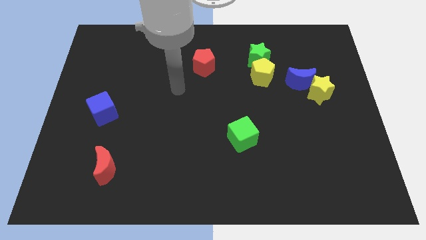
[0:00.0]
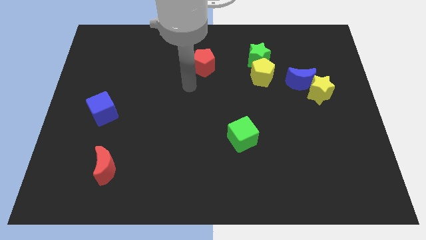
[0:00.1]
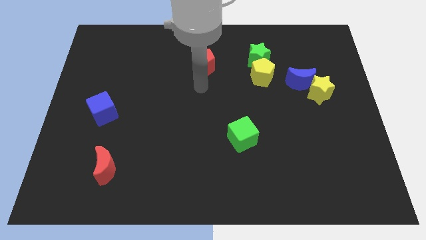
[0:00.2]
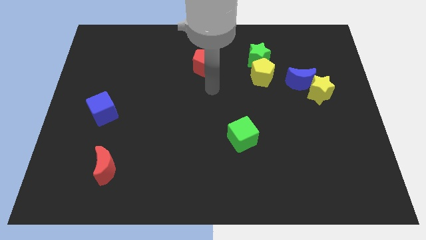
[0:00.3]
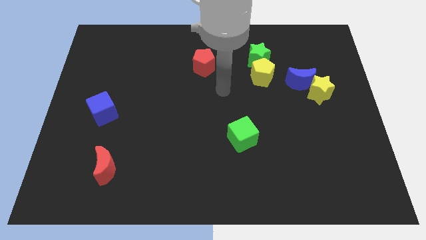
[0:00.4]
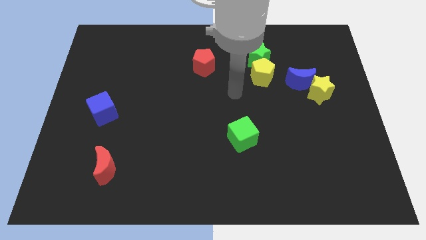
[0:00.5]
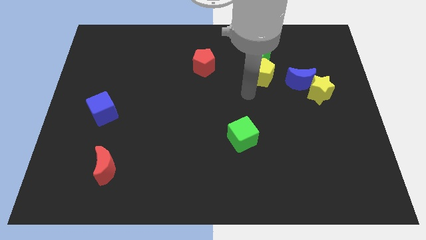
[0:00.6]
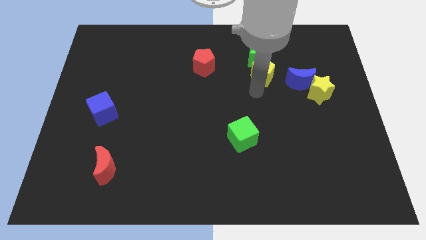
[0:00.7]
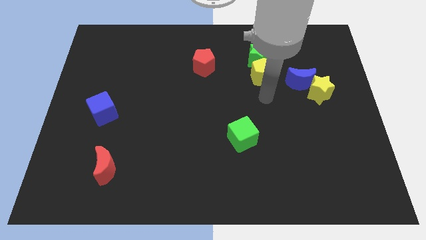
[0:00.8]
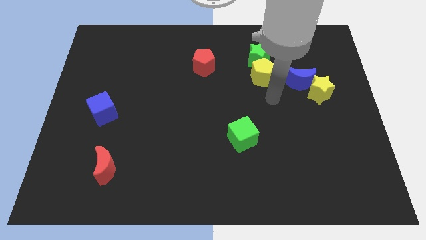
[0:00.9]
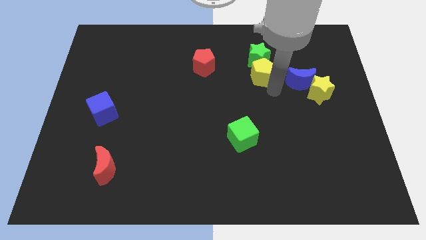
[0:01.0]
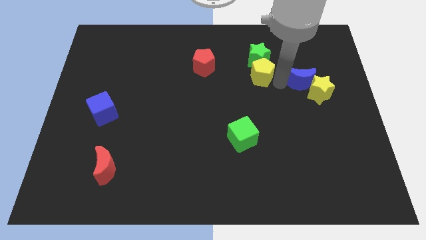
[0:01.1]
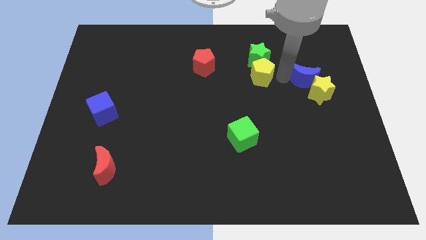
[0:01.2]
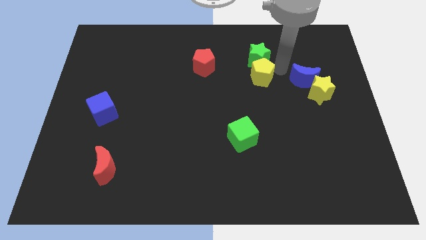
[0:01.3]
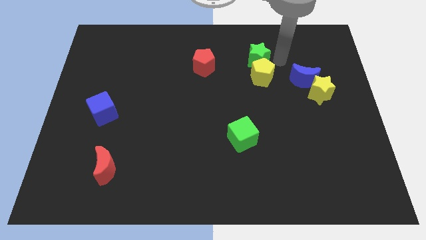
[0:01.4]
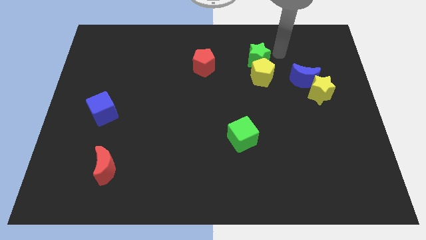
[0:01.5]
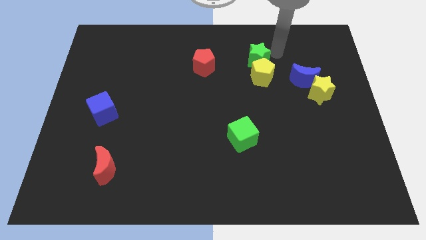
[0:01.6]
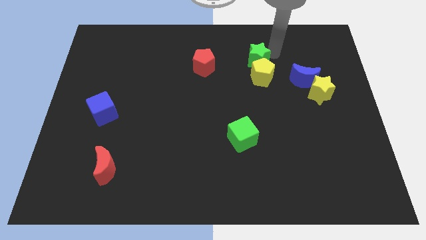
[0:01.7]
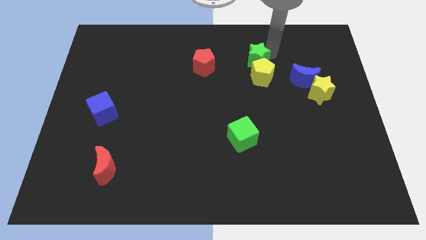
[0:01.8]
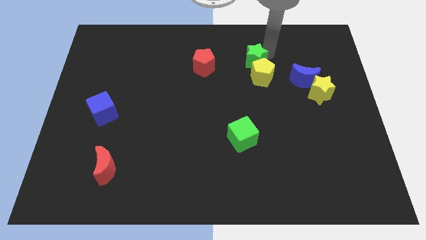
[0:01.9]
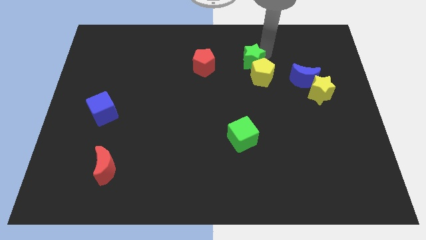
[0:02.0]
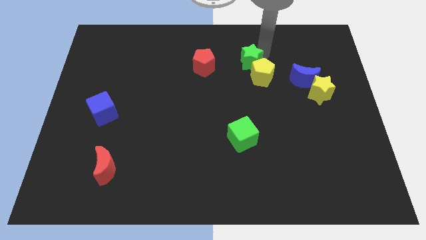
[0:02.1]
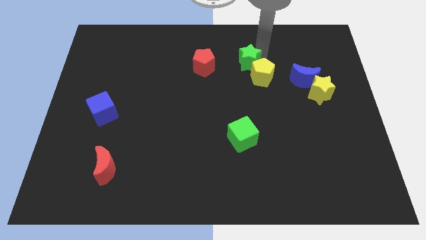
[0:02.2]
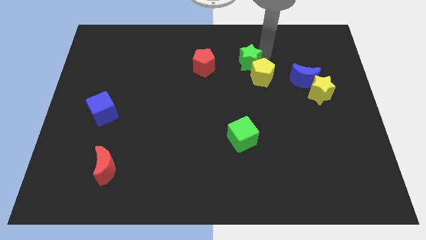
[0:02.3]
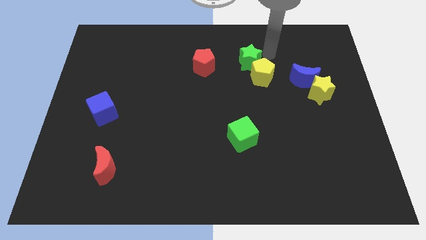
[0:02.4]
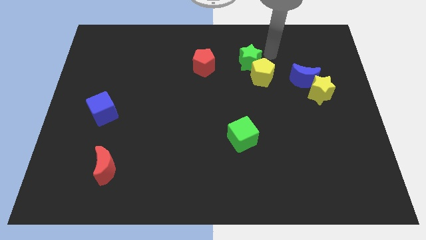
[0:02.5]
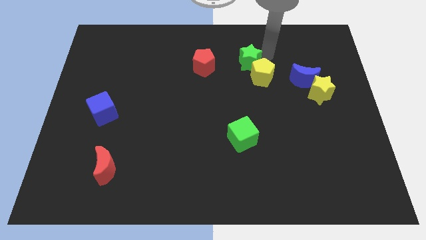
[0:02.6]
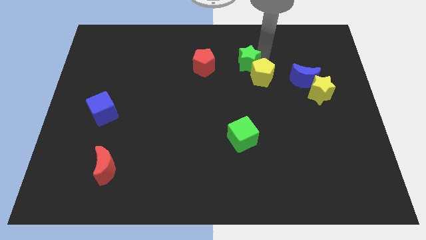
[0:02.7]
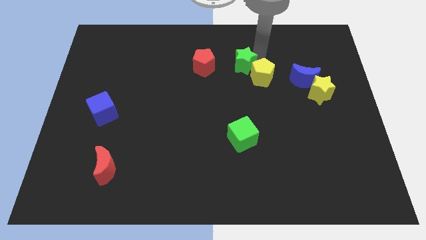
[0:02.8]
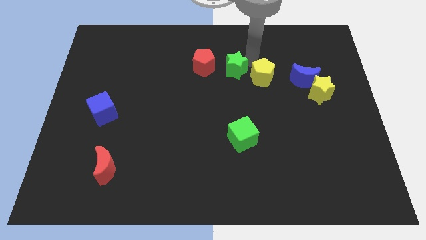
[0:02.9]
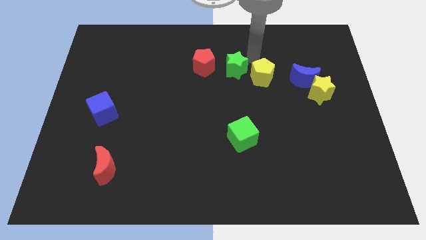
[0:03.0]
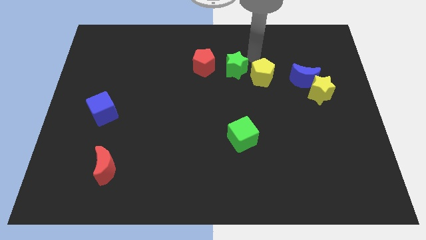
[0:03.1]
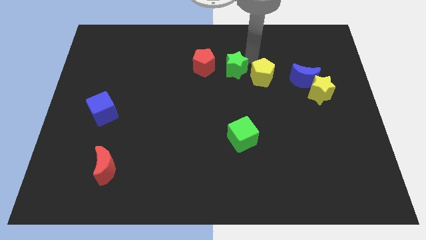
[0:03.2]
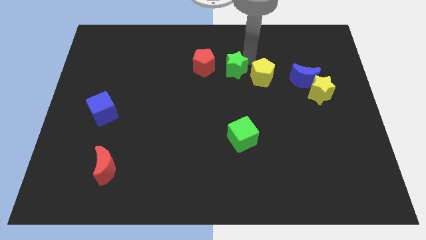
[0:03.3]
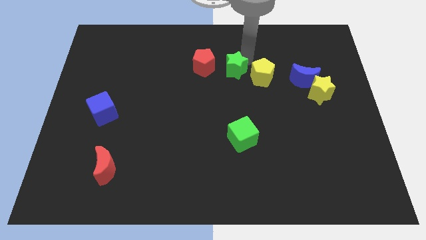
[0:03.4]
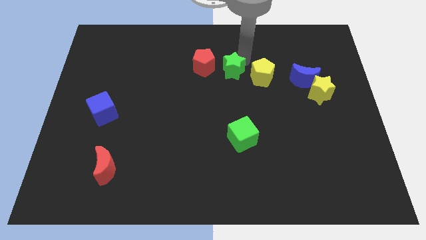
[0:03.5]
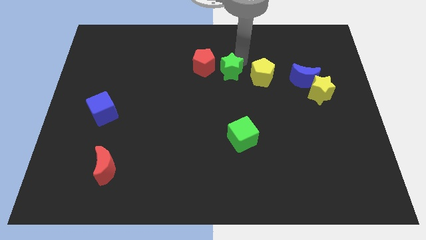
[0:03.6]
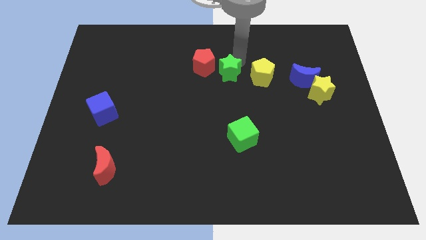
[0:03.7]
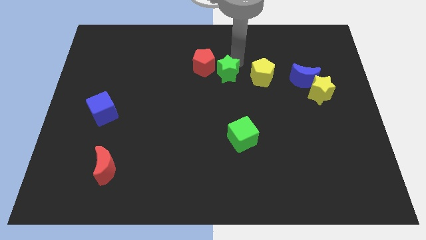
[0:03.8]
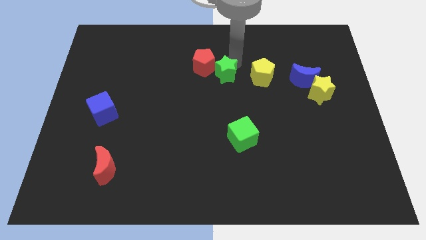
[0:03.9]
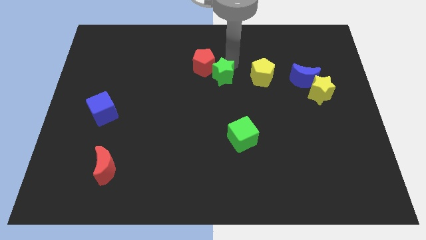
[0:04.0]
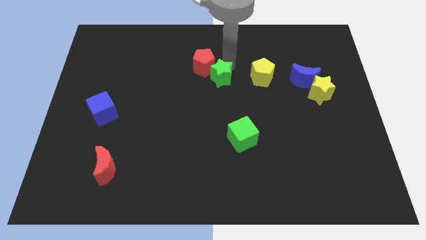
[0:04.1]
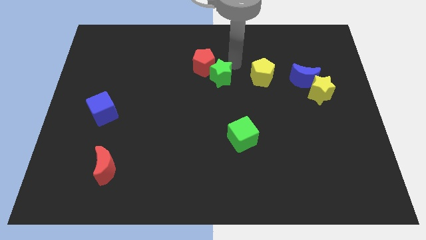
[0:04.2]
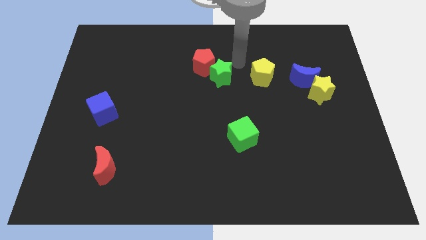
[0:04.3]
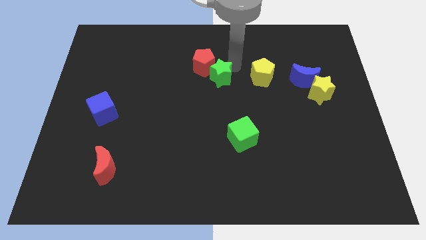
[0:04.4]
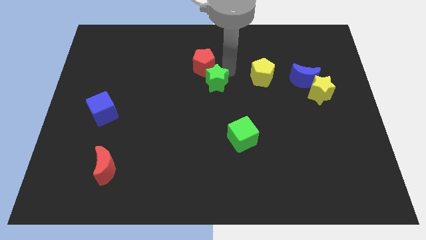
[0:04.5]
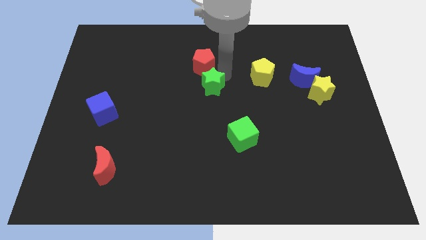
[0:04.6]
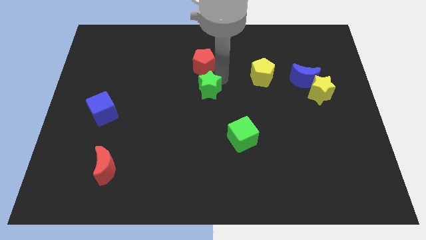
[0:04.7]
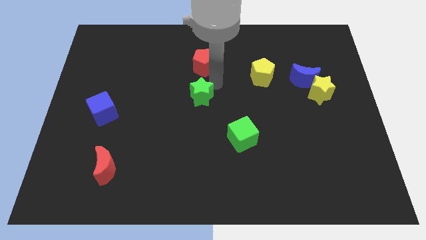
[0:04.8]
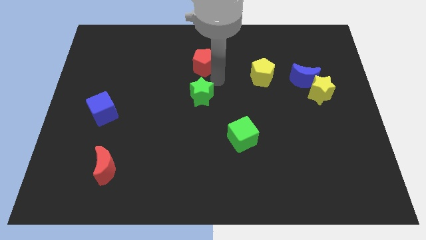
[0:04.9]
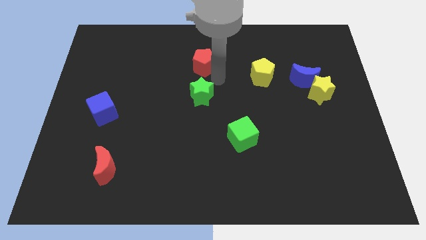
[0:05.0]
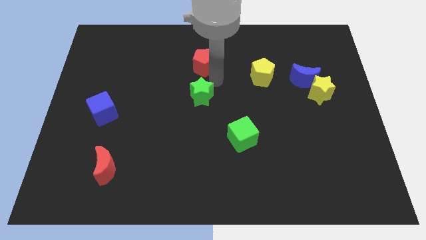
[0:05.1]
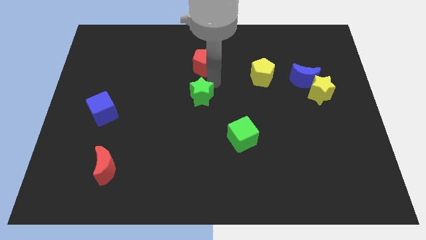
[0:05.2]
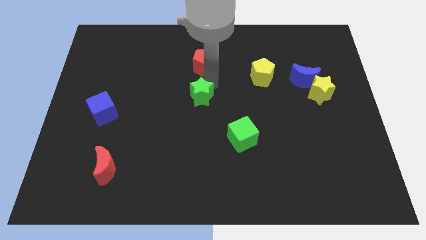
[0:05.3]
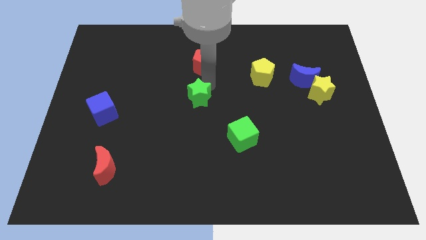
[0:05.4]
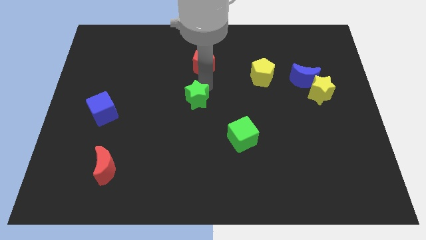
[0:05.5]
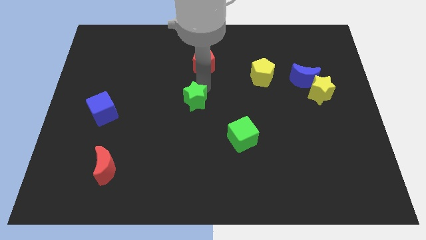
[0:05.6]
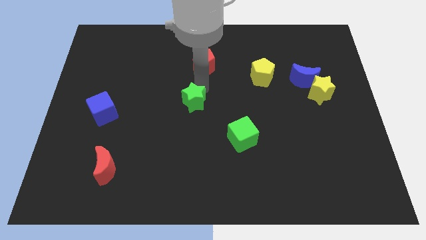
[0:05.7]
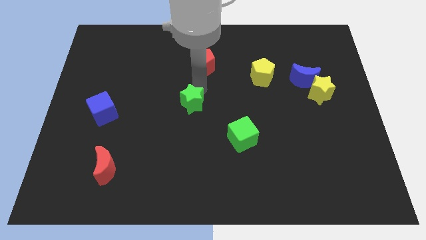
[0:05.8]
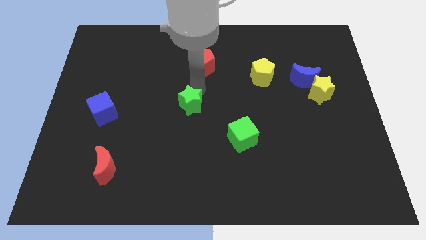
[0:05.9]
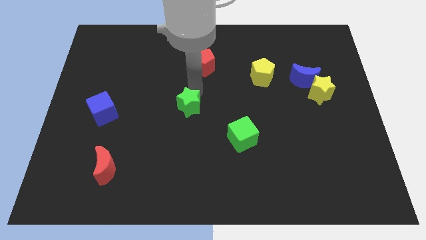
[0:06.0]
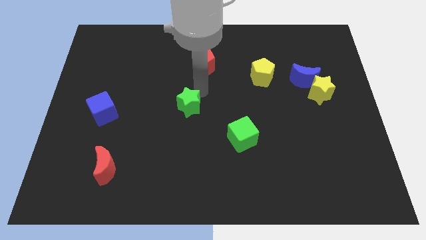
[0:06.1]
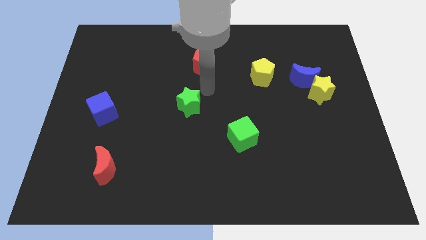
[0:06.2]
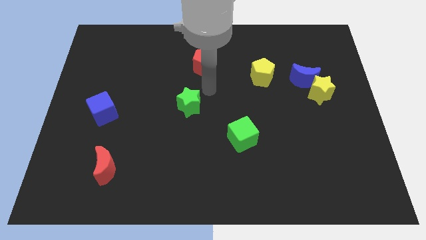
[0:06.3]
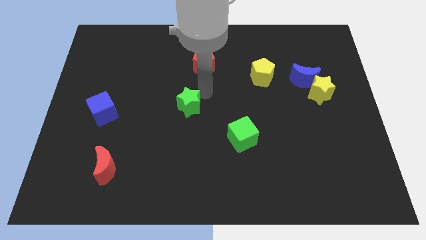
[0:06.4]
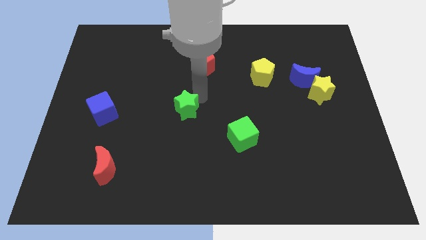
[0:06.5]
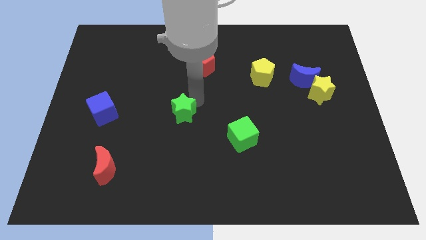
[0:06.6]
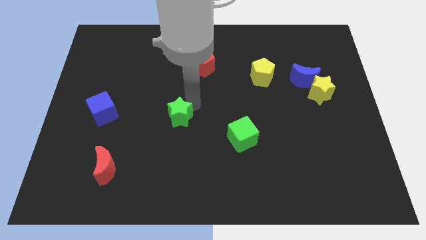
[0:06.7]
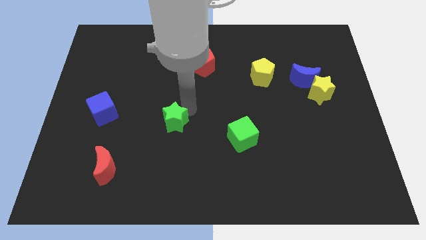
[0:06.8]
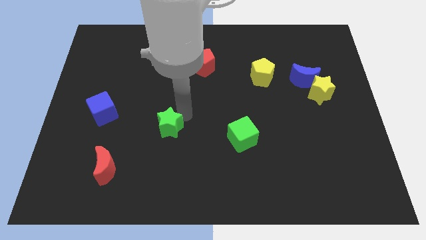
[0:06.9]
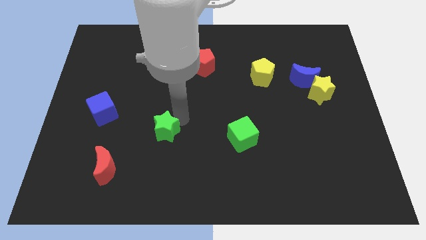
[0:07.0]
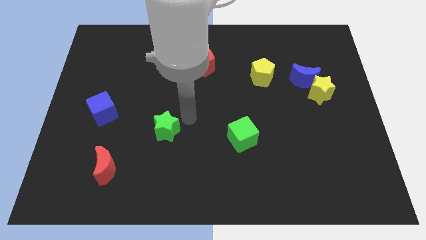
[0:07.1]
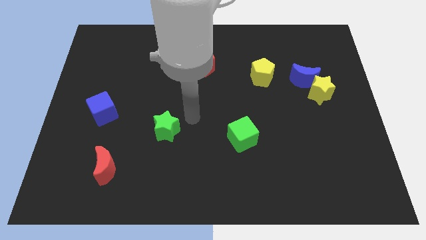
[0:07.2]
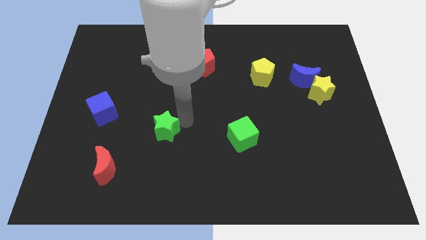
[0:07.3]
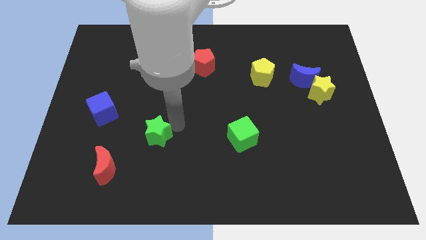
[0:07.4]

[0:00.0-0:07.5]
slide the green star to the top right of the red moon

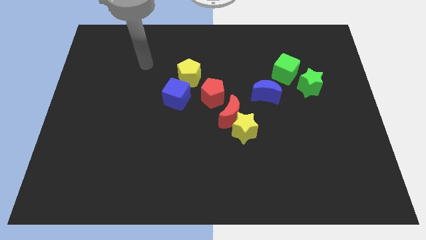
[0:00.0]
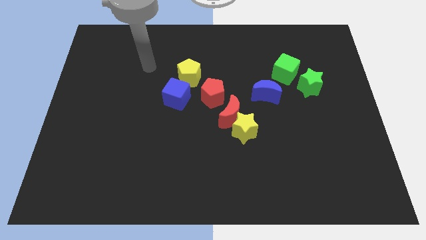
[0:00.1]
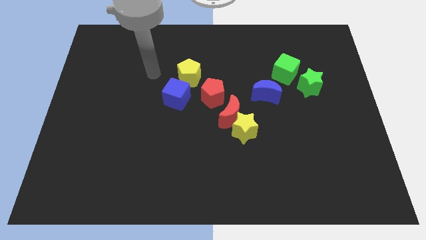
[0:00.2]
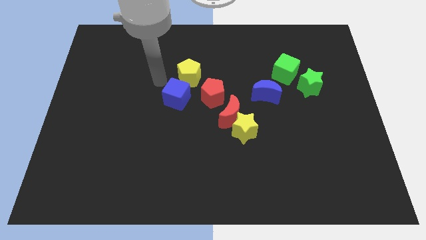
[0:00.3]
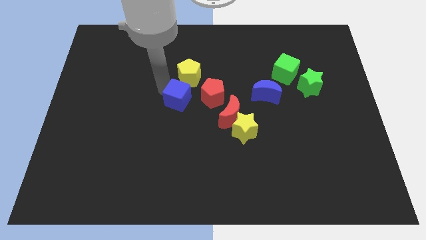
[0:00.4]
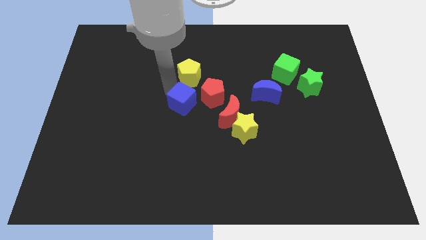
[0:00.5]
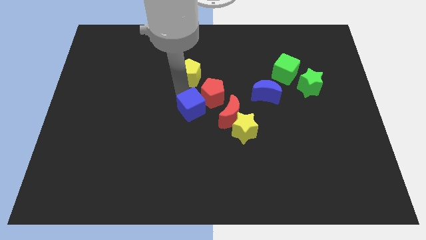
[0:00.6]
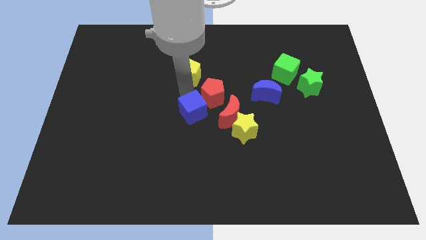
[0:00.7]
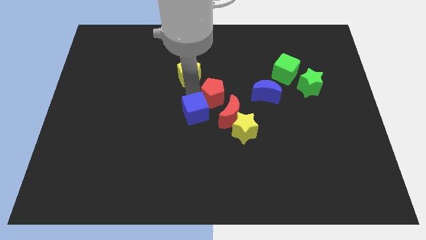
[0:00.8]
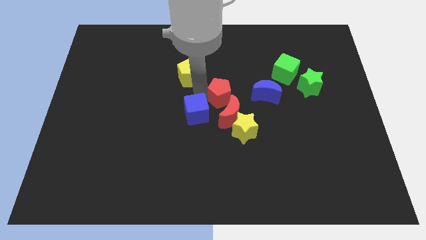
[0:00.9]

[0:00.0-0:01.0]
slide the red pentagon above the yellow star
